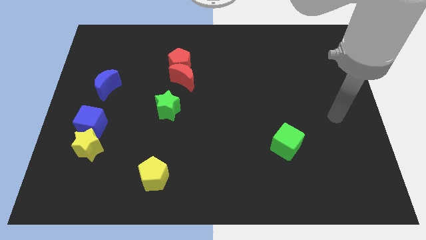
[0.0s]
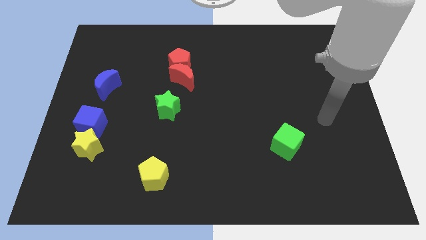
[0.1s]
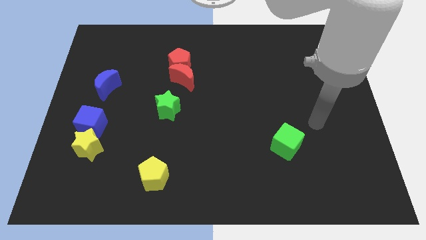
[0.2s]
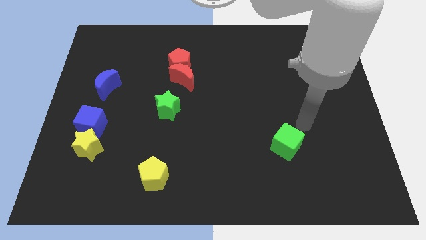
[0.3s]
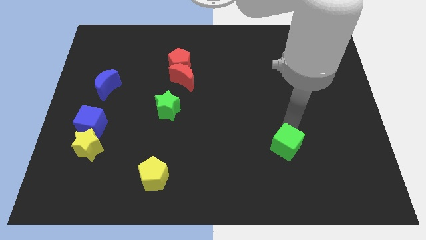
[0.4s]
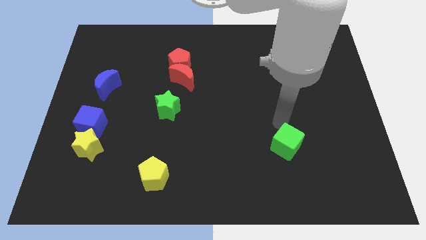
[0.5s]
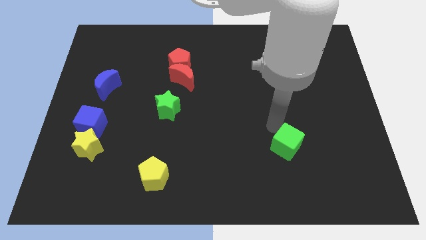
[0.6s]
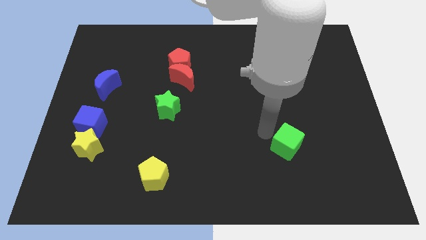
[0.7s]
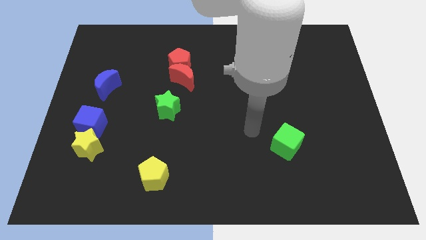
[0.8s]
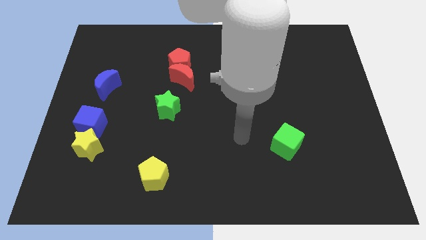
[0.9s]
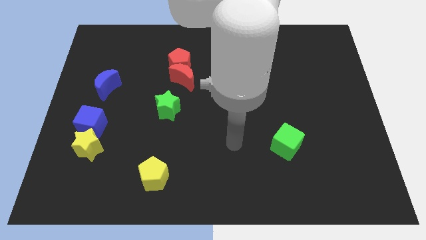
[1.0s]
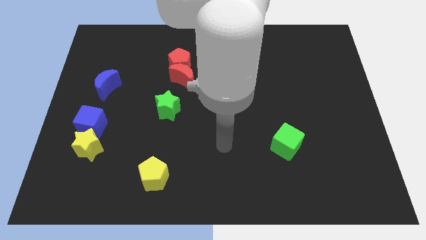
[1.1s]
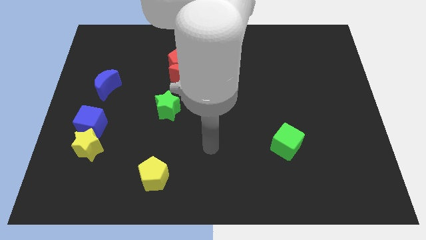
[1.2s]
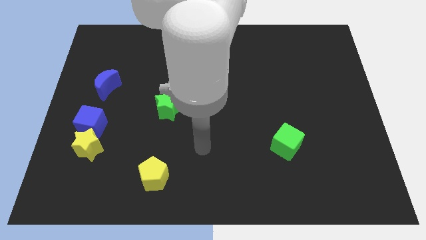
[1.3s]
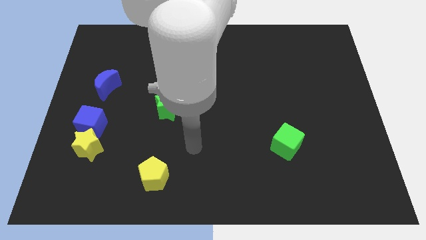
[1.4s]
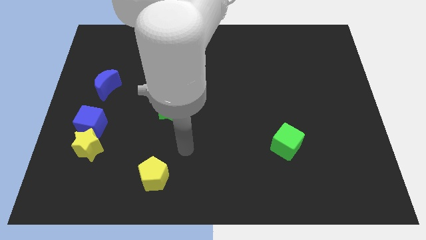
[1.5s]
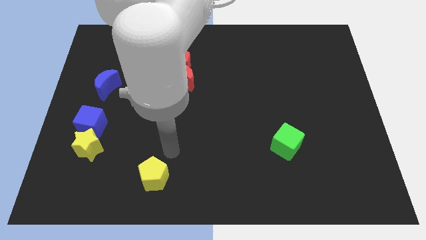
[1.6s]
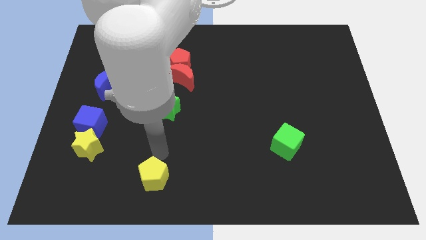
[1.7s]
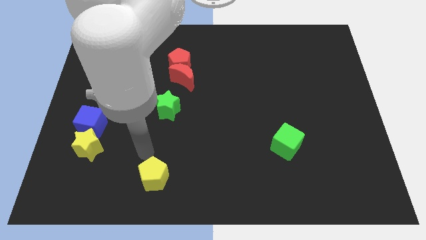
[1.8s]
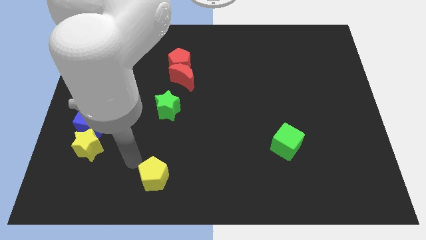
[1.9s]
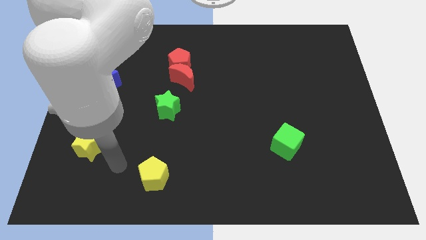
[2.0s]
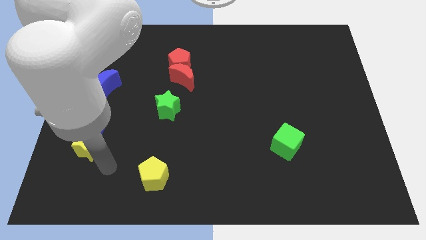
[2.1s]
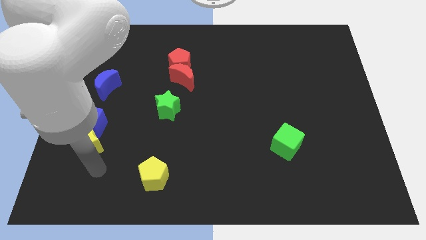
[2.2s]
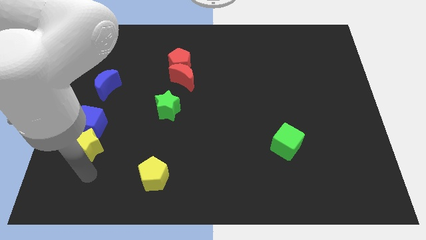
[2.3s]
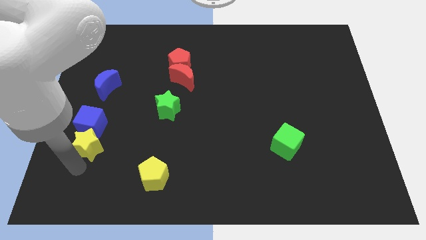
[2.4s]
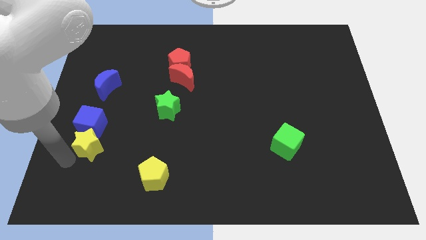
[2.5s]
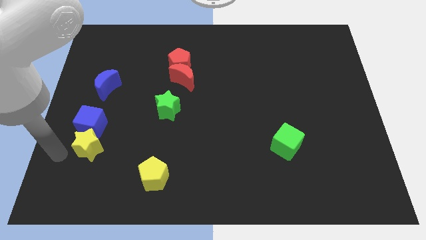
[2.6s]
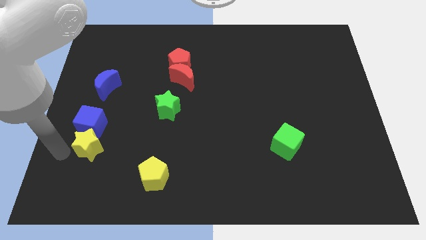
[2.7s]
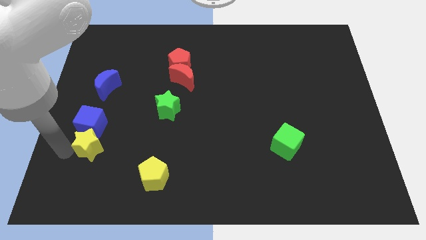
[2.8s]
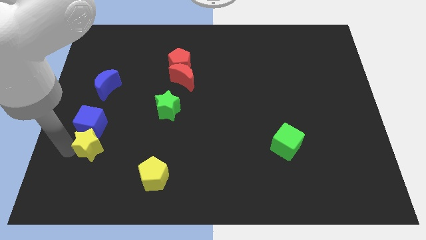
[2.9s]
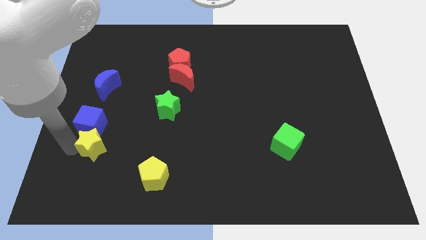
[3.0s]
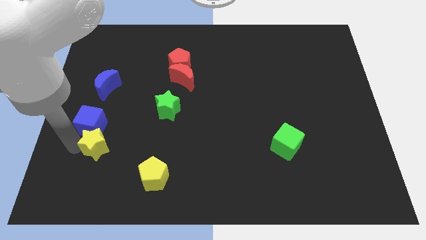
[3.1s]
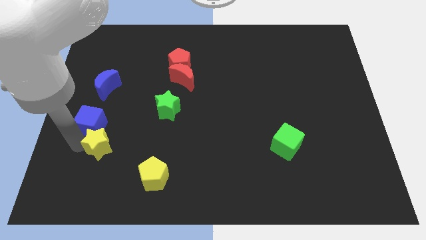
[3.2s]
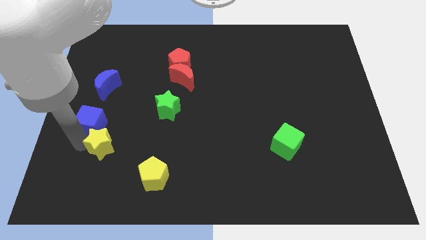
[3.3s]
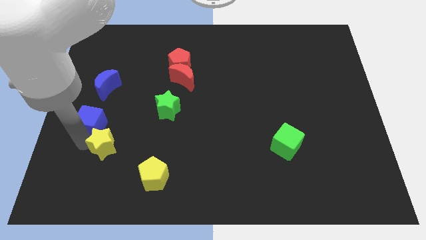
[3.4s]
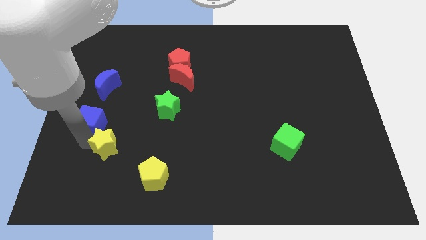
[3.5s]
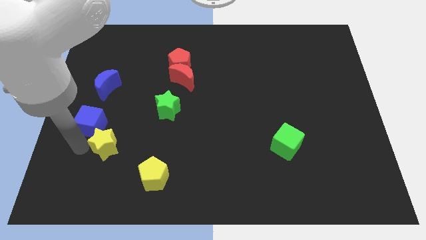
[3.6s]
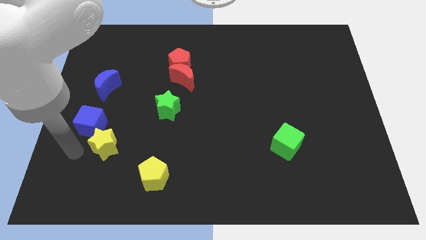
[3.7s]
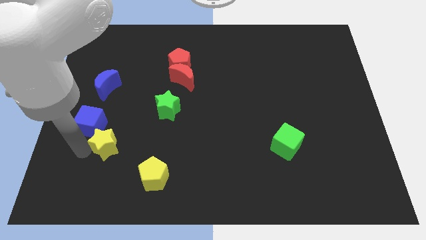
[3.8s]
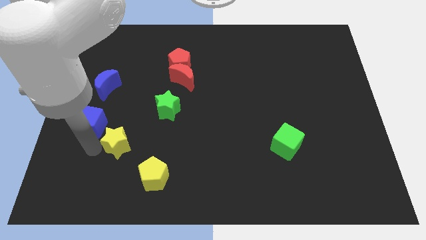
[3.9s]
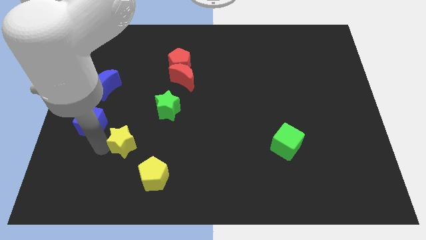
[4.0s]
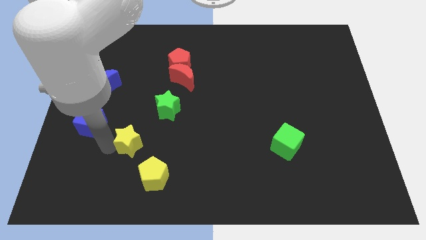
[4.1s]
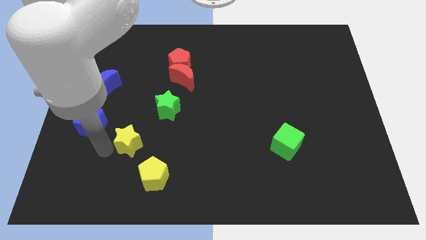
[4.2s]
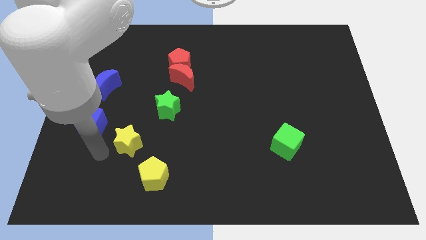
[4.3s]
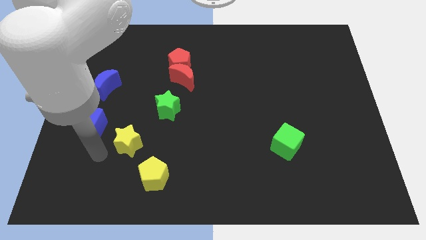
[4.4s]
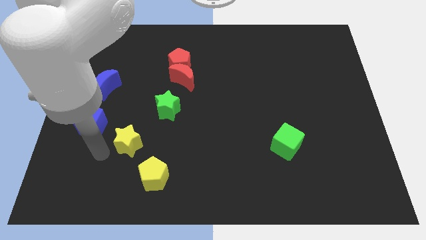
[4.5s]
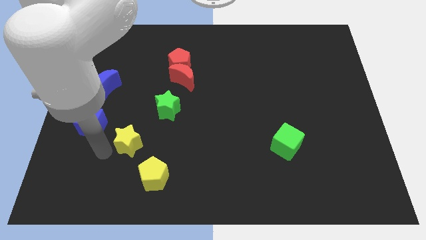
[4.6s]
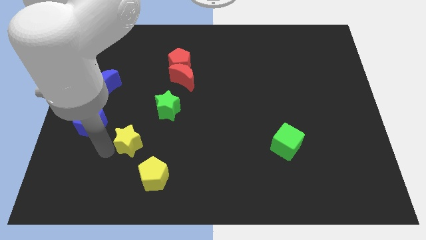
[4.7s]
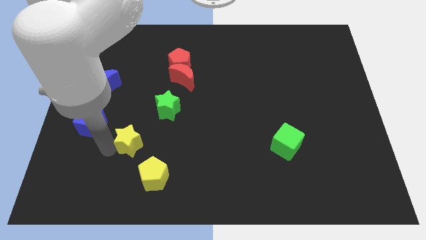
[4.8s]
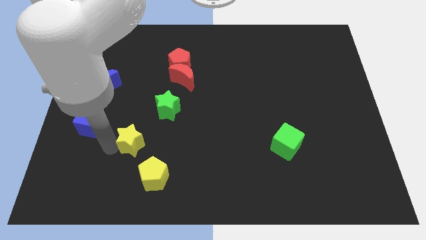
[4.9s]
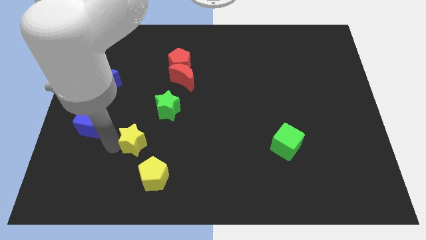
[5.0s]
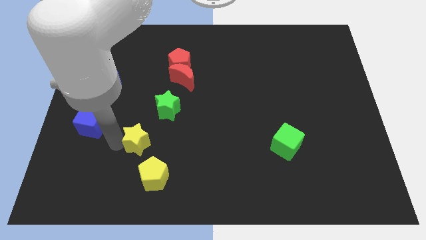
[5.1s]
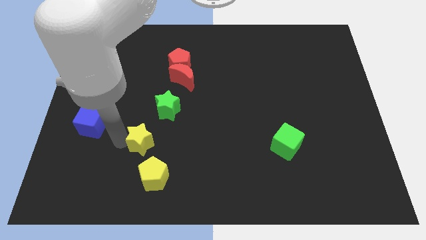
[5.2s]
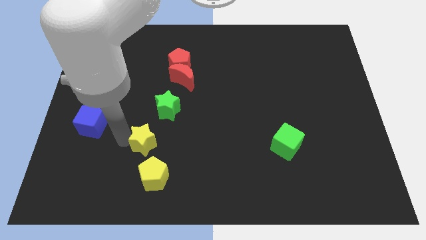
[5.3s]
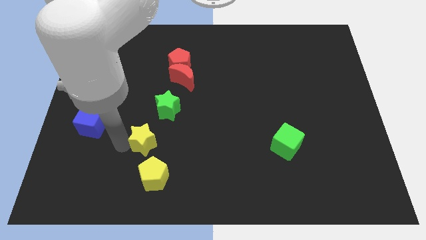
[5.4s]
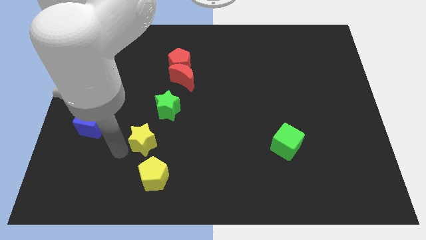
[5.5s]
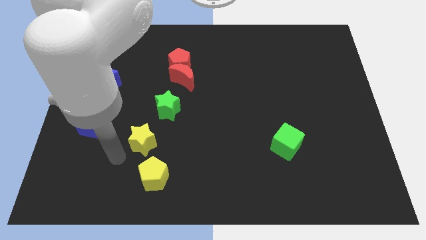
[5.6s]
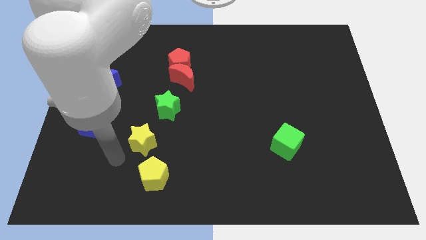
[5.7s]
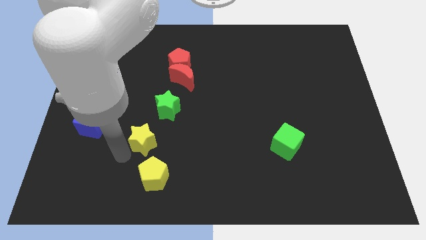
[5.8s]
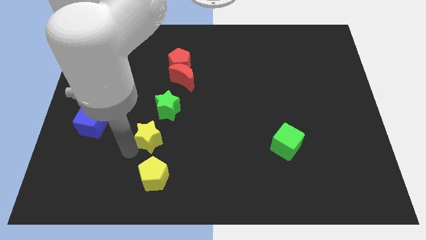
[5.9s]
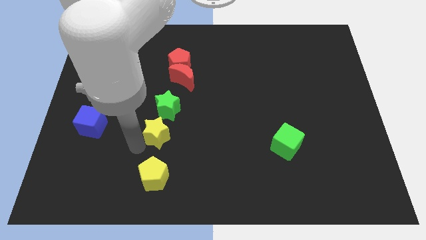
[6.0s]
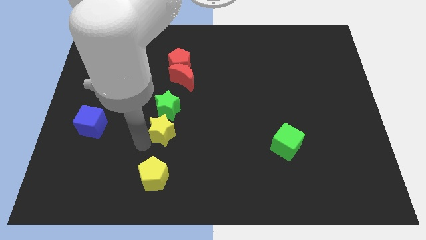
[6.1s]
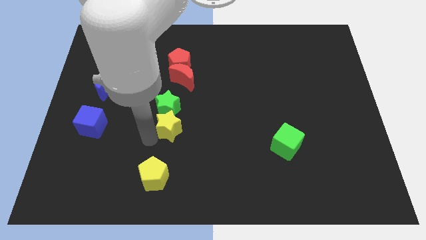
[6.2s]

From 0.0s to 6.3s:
put the yellow star to the bottom right side of the green star

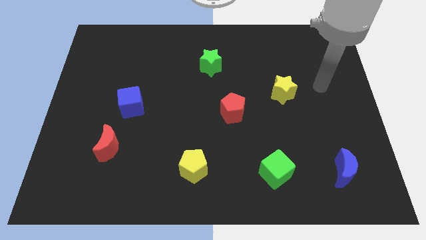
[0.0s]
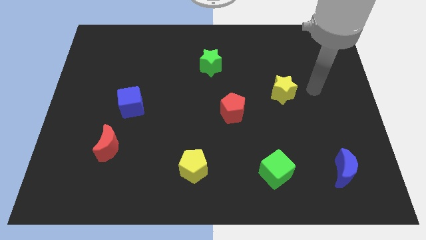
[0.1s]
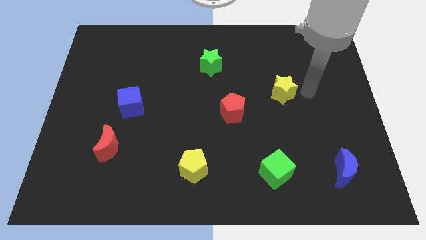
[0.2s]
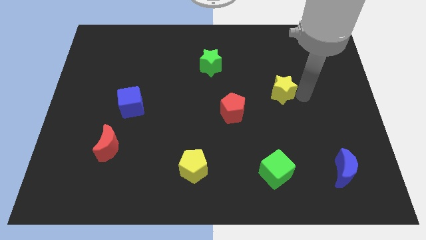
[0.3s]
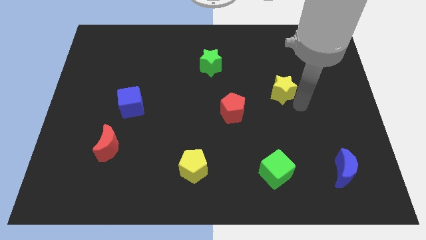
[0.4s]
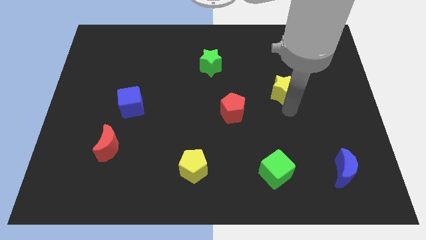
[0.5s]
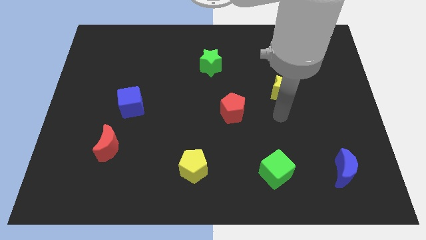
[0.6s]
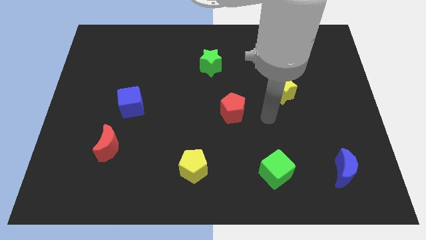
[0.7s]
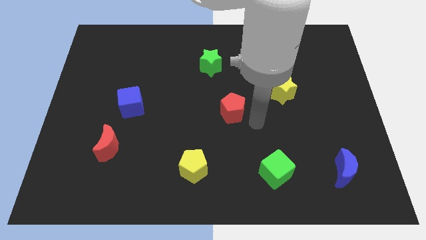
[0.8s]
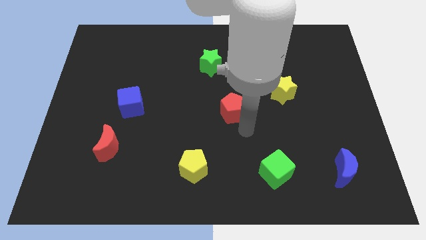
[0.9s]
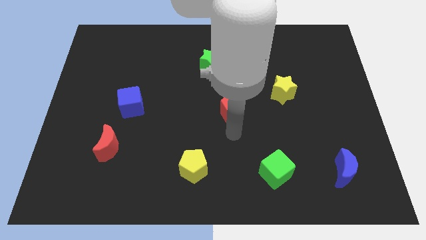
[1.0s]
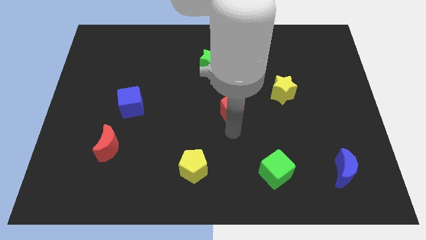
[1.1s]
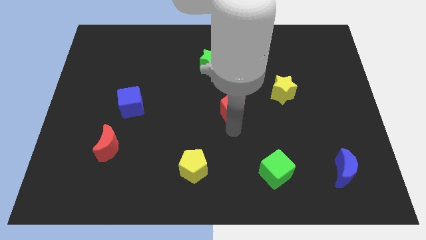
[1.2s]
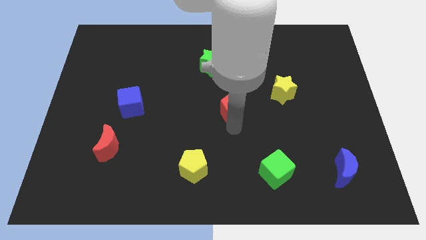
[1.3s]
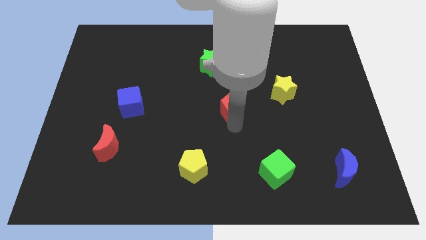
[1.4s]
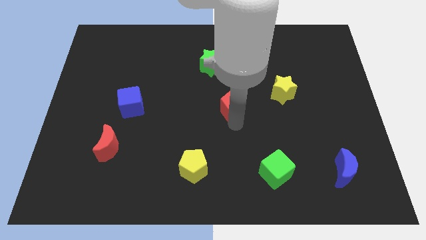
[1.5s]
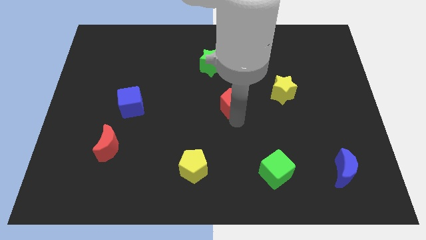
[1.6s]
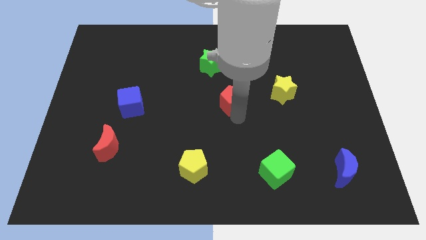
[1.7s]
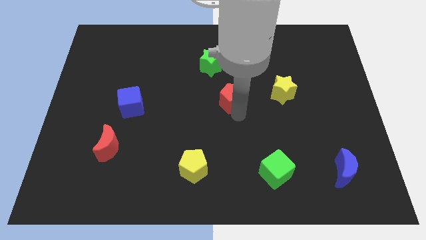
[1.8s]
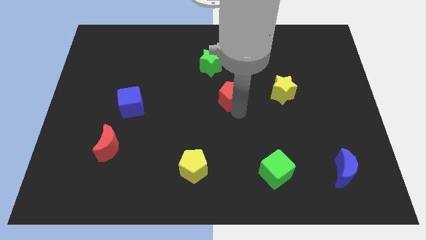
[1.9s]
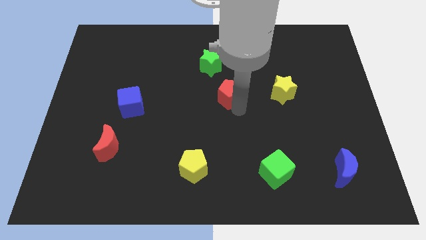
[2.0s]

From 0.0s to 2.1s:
move the red pentagon diagonally down and to the right of the green star

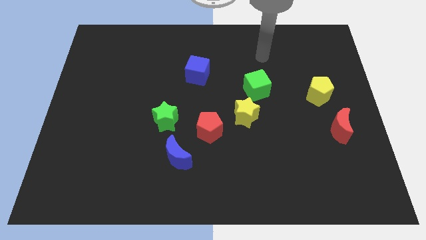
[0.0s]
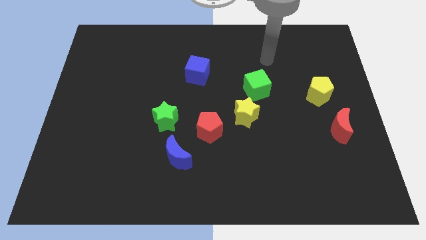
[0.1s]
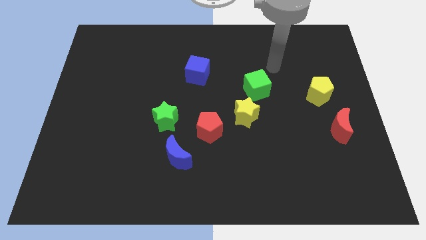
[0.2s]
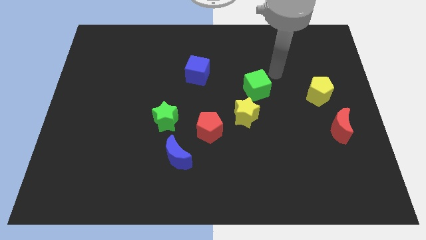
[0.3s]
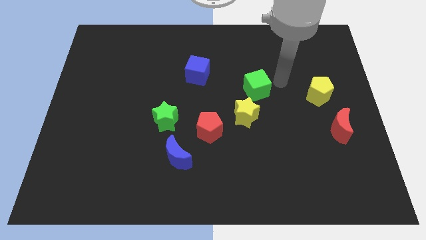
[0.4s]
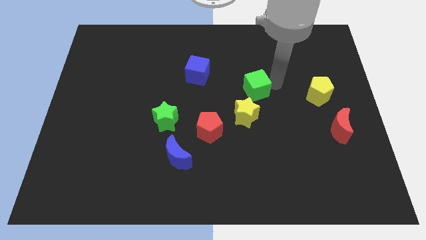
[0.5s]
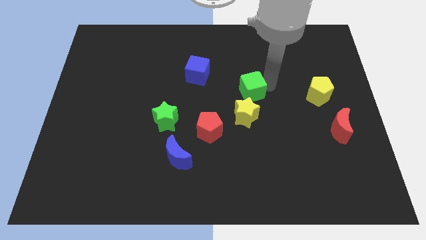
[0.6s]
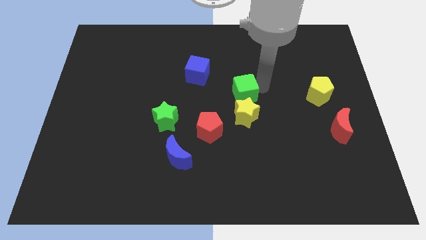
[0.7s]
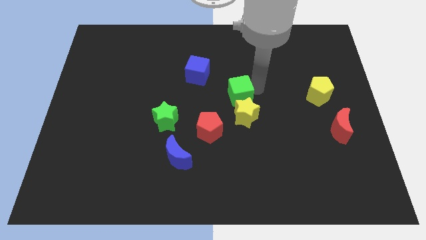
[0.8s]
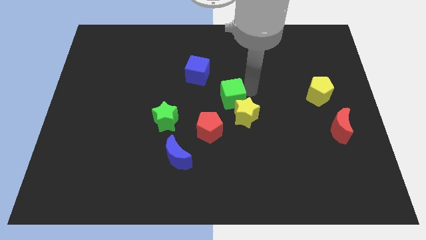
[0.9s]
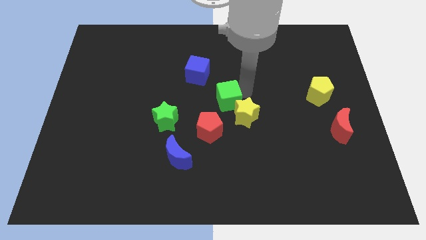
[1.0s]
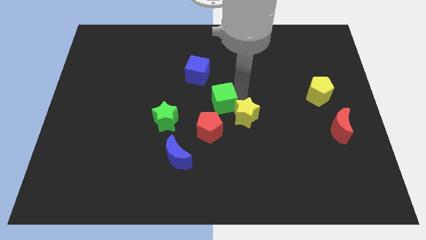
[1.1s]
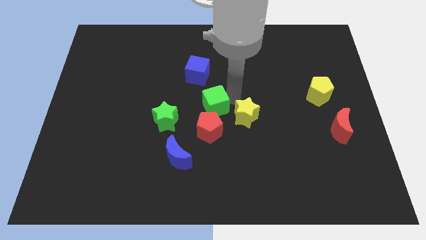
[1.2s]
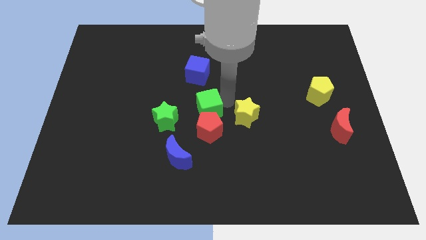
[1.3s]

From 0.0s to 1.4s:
push the green cube diagonally up and to the right of the green star
